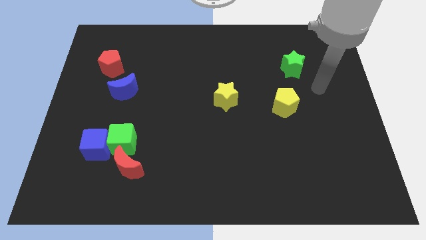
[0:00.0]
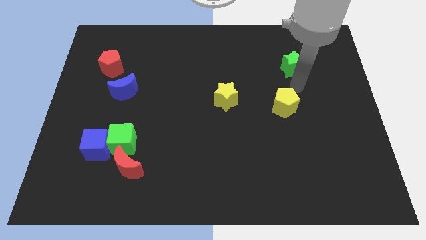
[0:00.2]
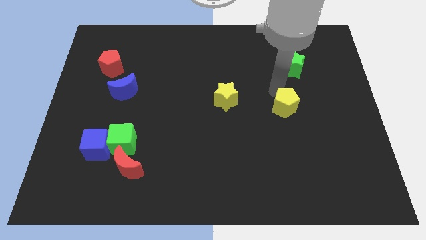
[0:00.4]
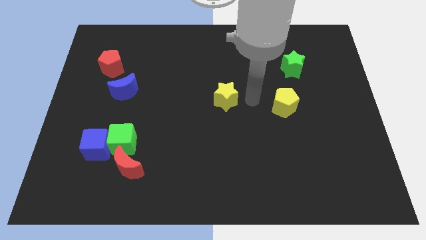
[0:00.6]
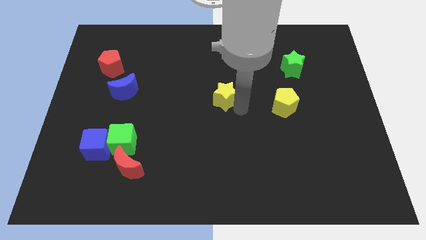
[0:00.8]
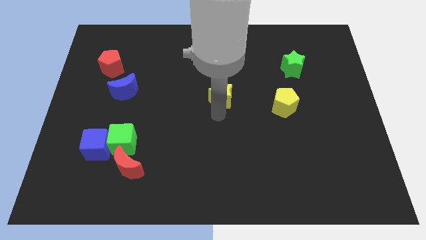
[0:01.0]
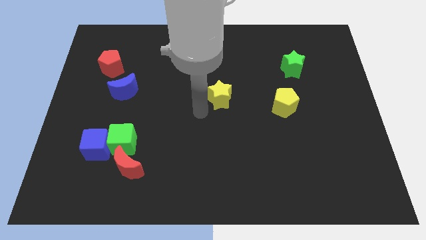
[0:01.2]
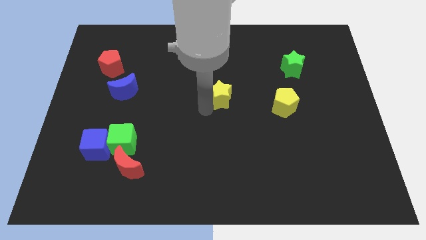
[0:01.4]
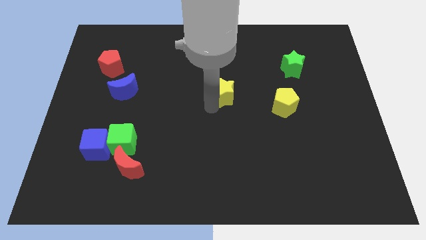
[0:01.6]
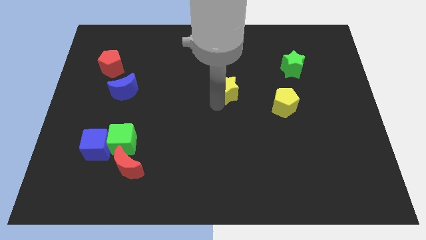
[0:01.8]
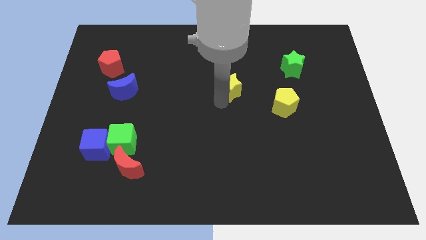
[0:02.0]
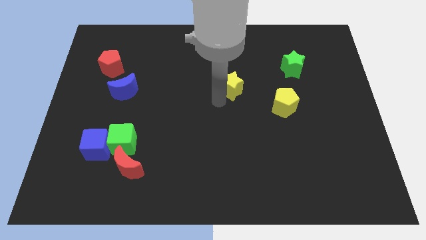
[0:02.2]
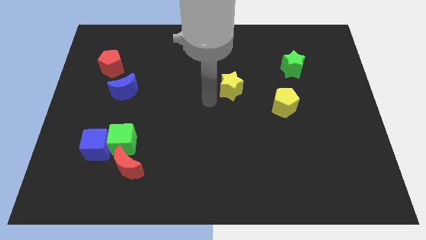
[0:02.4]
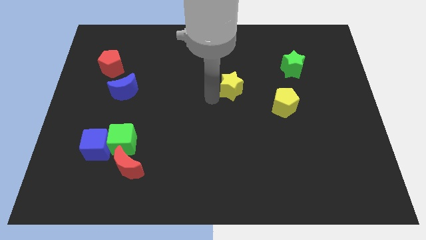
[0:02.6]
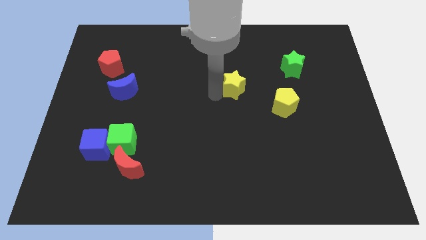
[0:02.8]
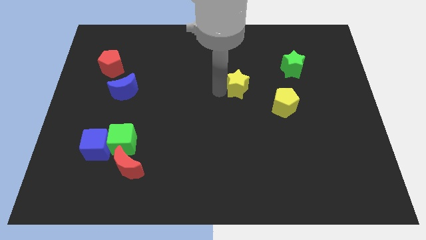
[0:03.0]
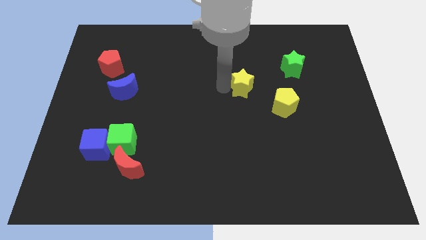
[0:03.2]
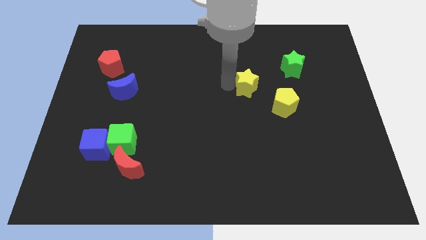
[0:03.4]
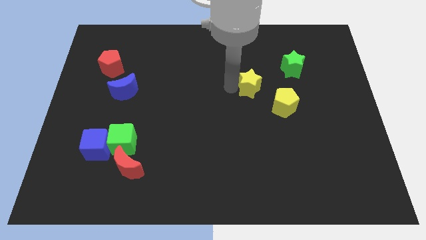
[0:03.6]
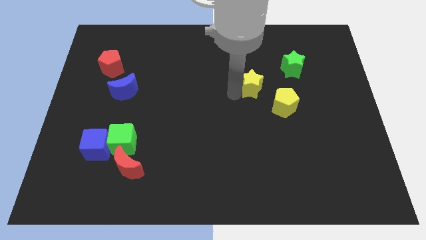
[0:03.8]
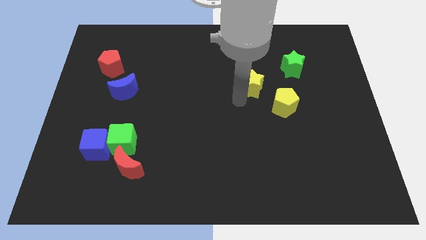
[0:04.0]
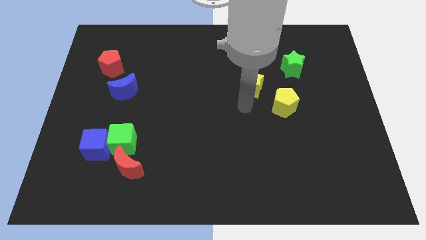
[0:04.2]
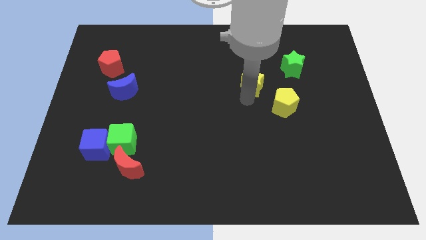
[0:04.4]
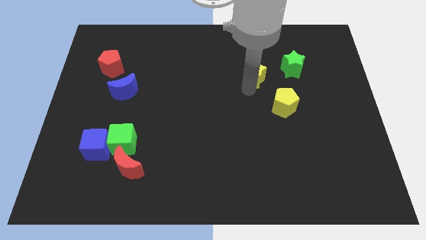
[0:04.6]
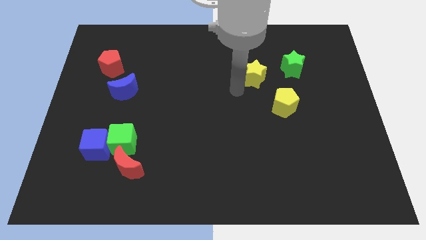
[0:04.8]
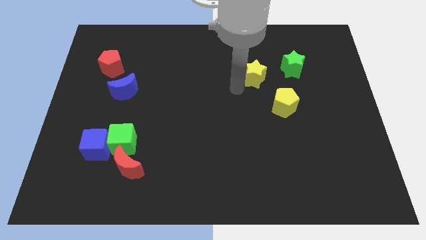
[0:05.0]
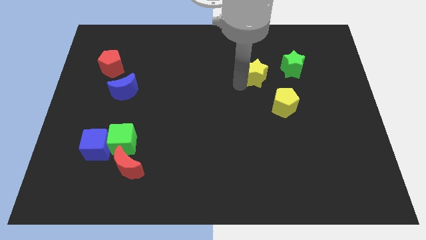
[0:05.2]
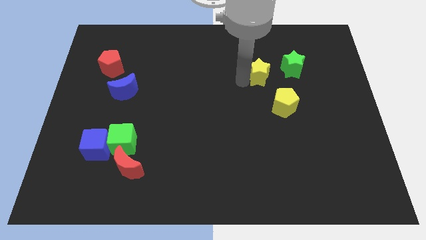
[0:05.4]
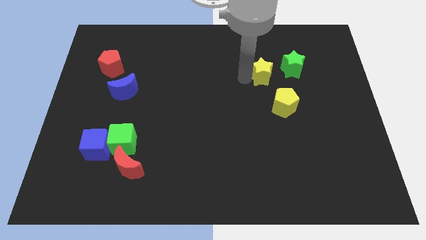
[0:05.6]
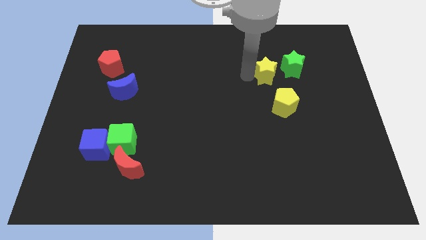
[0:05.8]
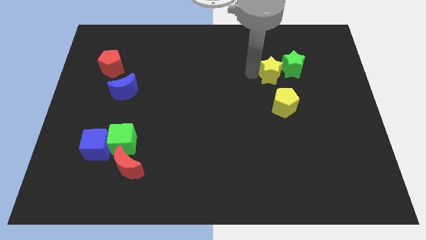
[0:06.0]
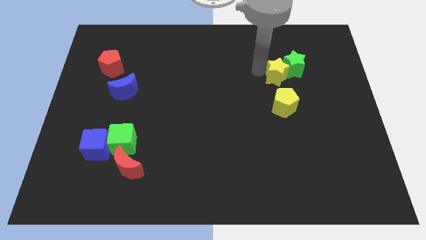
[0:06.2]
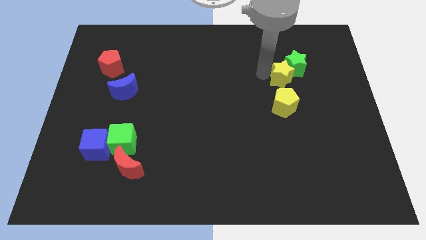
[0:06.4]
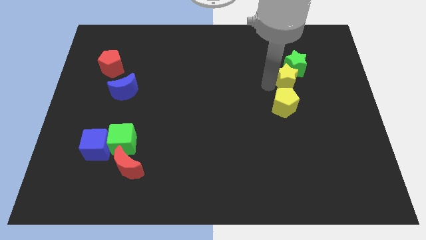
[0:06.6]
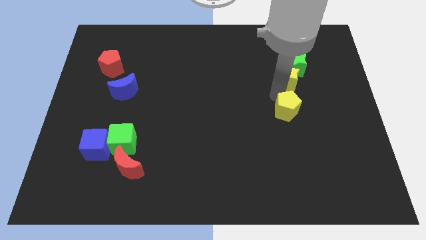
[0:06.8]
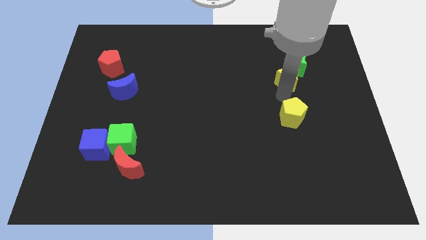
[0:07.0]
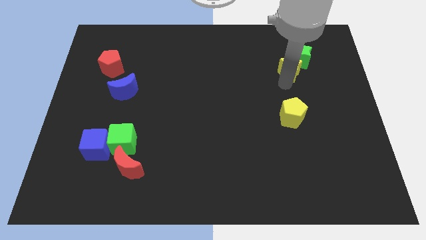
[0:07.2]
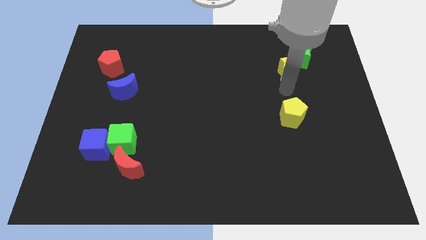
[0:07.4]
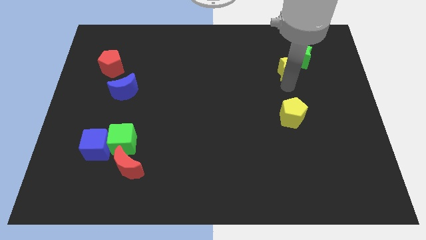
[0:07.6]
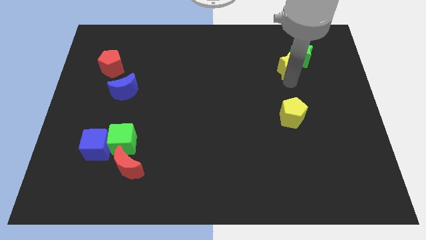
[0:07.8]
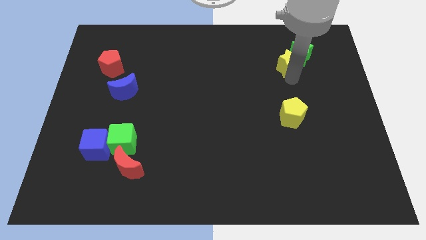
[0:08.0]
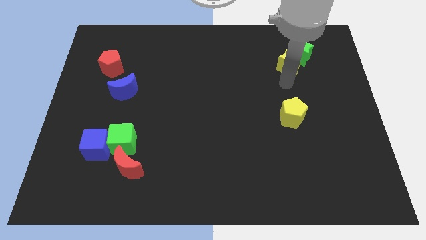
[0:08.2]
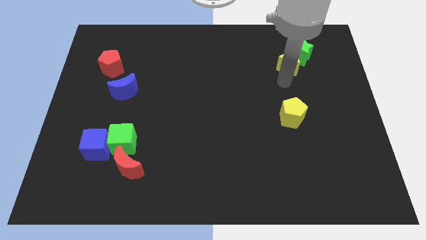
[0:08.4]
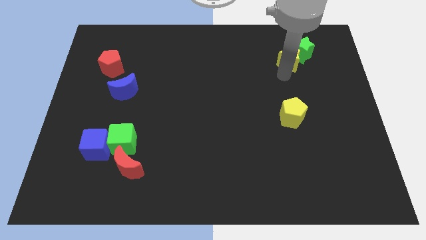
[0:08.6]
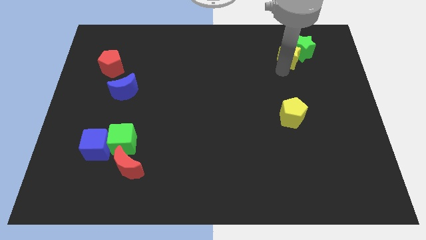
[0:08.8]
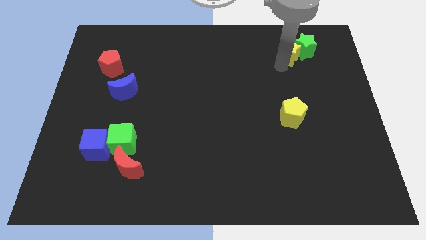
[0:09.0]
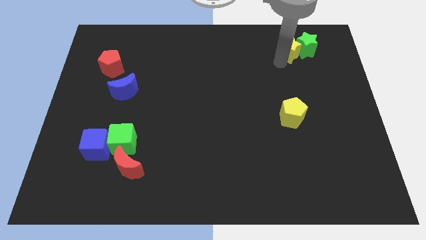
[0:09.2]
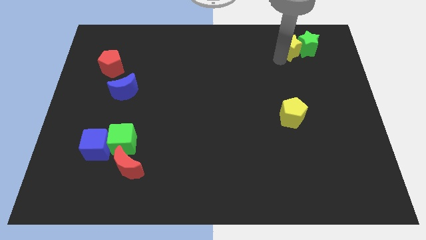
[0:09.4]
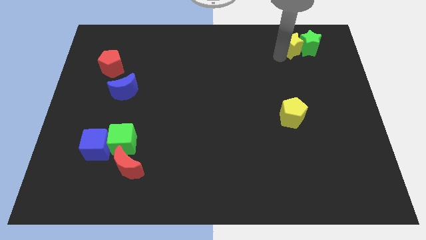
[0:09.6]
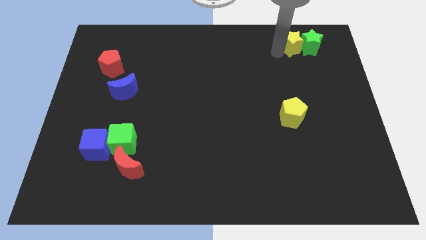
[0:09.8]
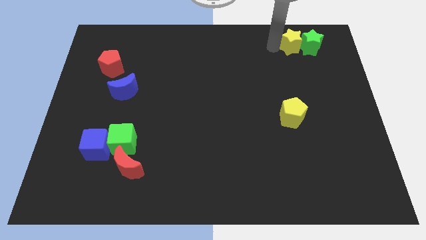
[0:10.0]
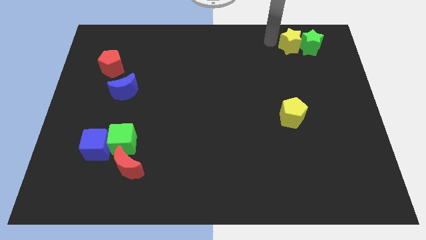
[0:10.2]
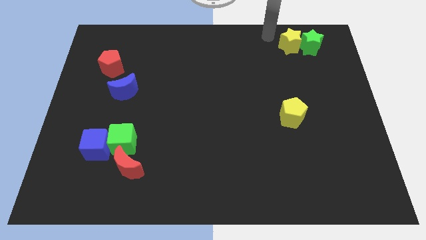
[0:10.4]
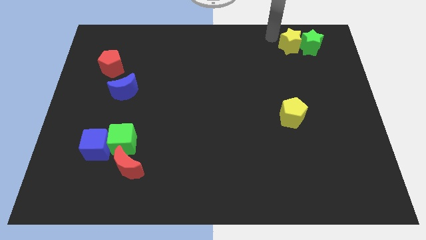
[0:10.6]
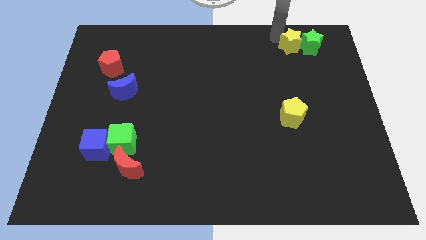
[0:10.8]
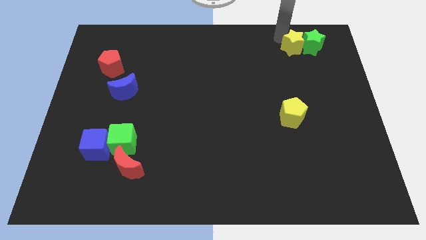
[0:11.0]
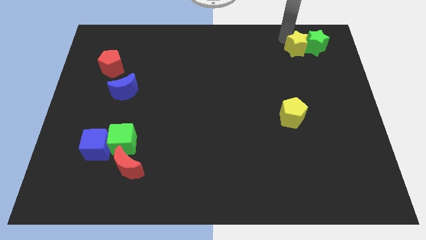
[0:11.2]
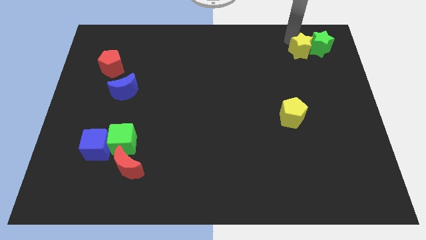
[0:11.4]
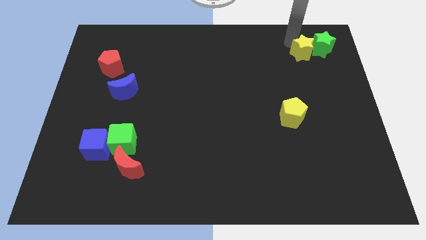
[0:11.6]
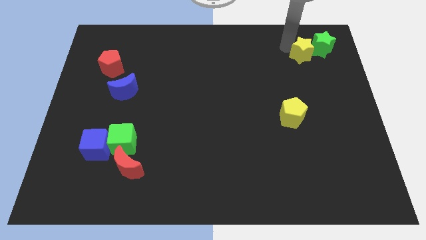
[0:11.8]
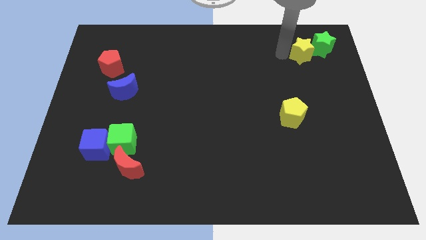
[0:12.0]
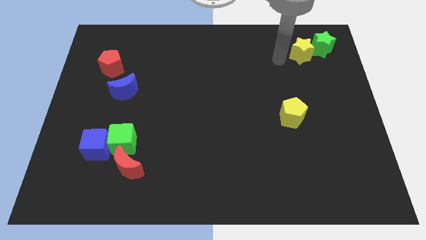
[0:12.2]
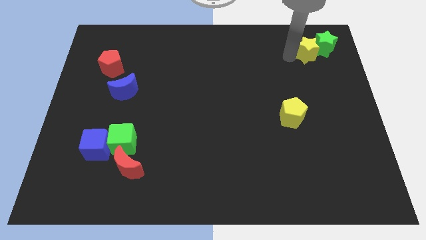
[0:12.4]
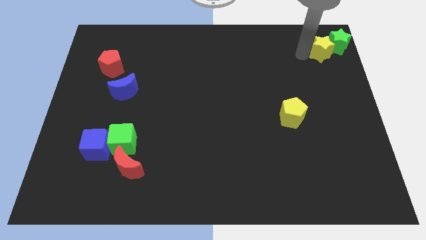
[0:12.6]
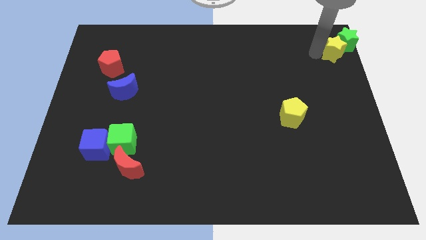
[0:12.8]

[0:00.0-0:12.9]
put the yellow star to the top right corner
